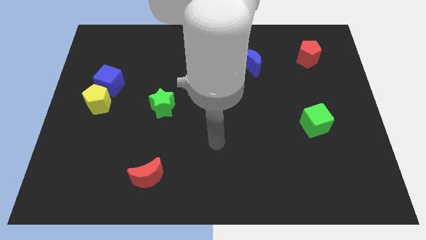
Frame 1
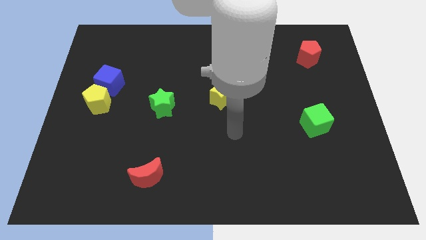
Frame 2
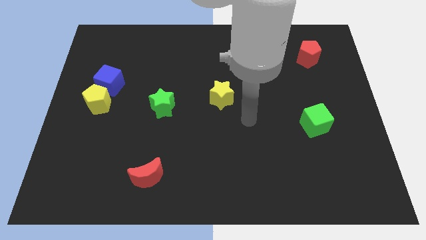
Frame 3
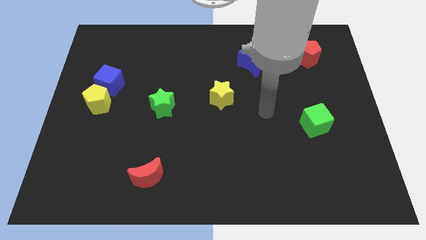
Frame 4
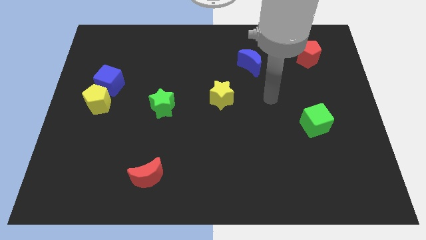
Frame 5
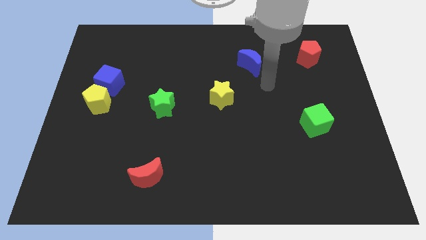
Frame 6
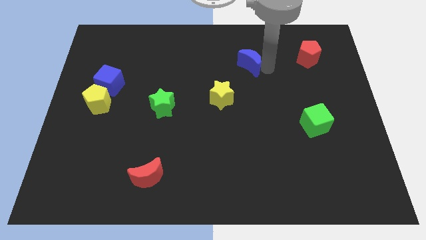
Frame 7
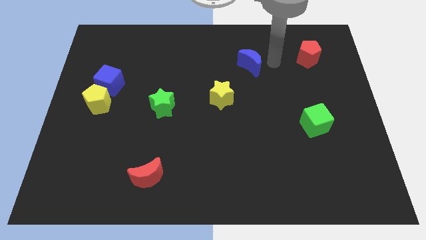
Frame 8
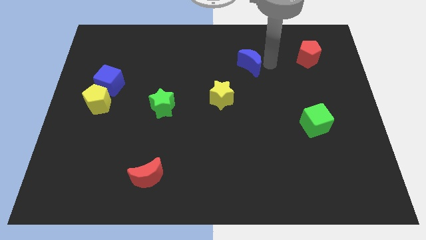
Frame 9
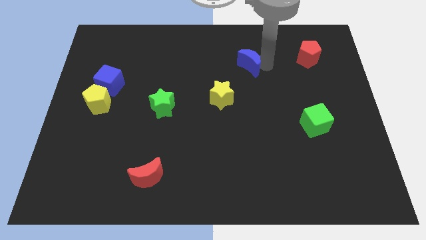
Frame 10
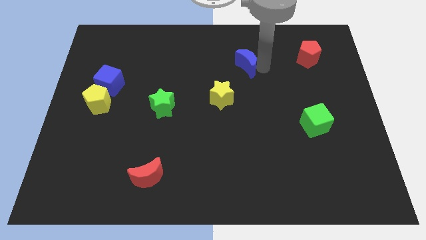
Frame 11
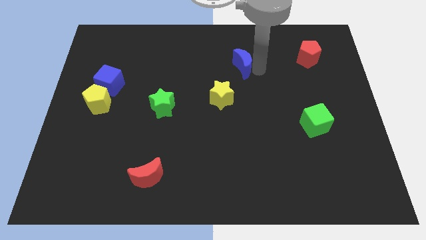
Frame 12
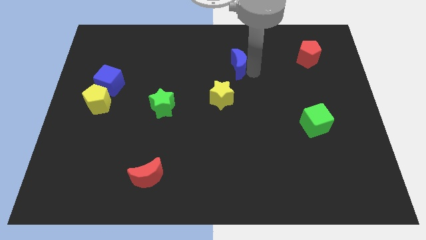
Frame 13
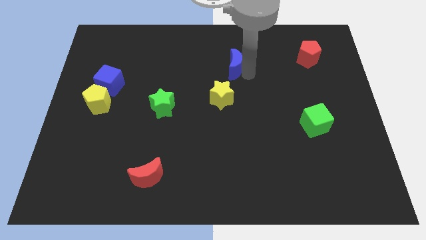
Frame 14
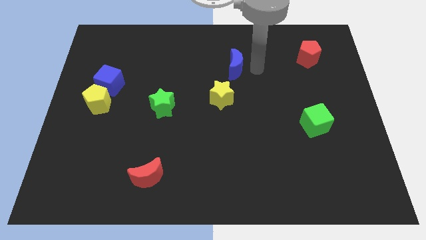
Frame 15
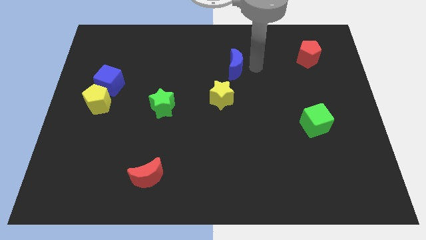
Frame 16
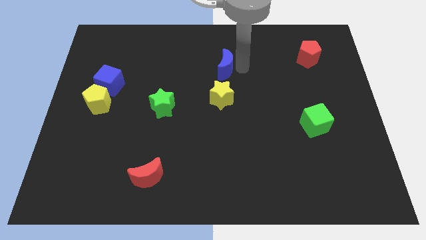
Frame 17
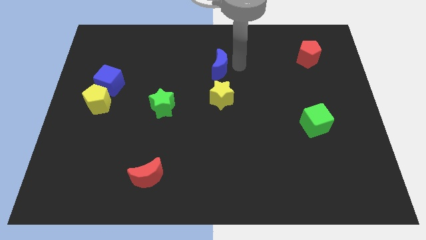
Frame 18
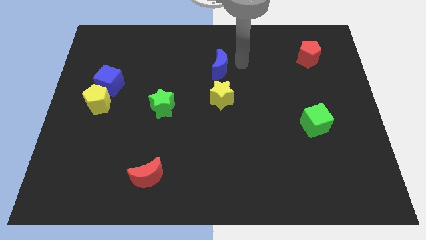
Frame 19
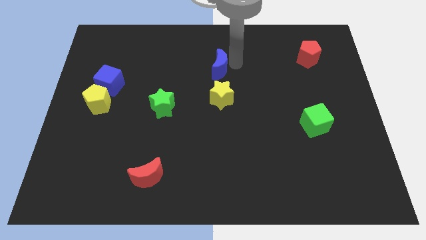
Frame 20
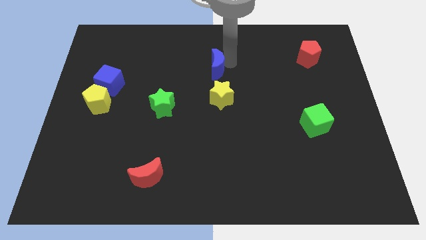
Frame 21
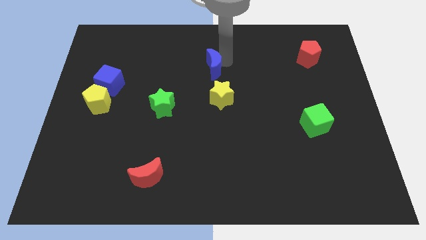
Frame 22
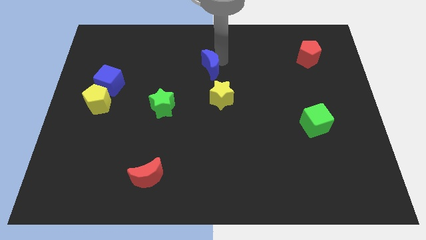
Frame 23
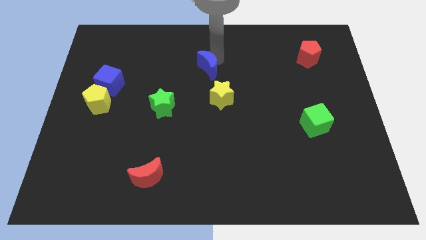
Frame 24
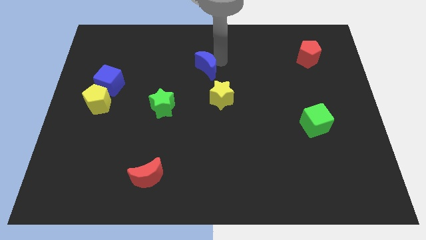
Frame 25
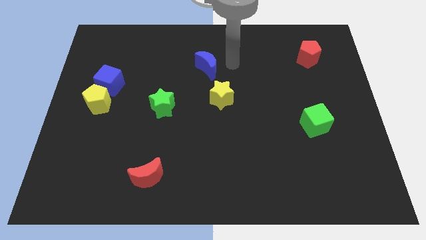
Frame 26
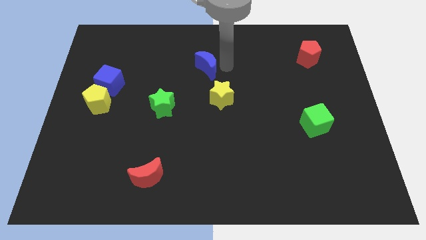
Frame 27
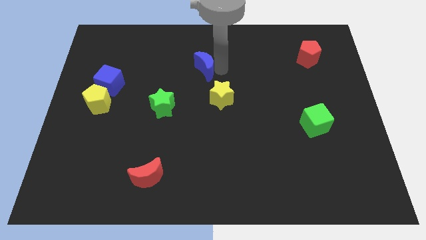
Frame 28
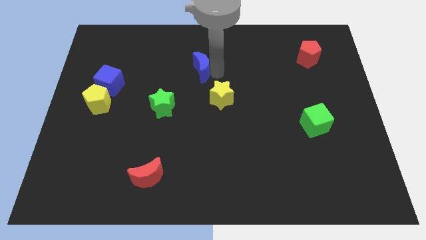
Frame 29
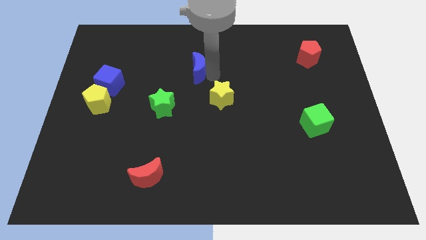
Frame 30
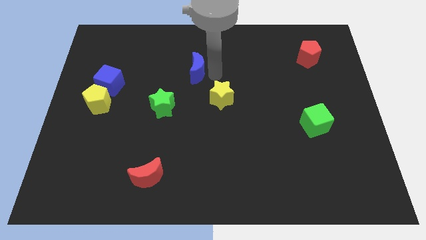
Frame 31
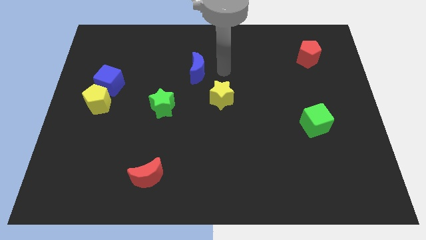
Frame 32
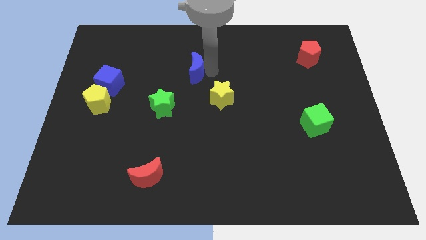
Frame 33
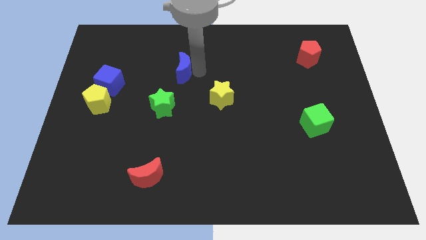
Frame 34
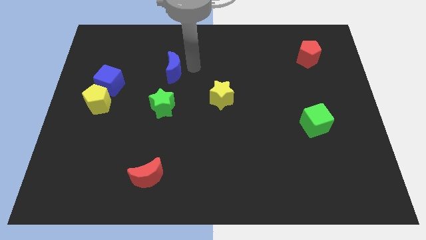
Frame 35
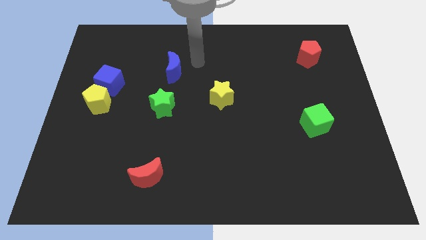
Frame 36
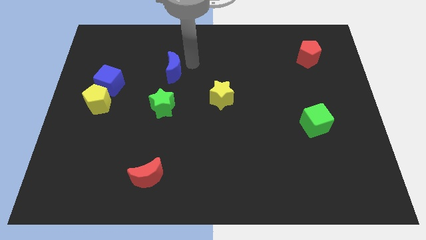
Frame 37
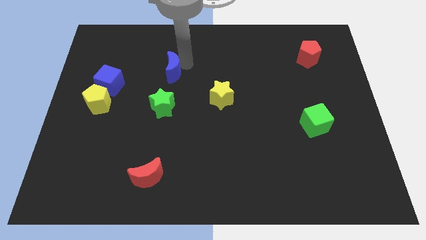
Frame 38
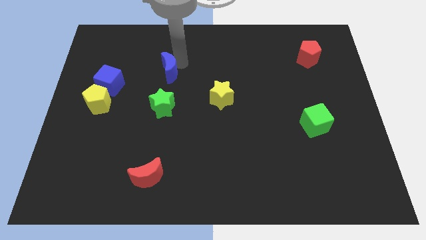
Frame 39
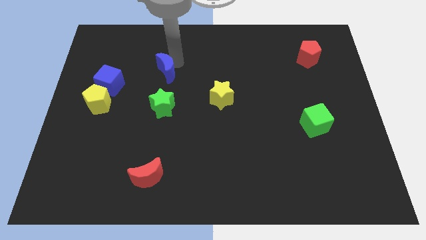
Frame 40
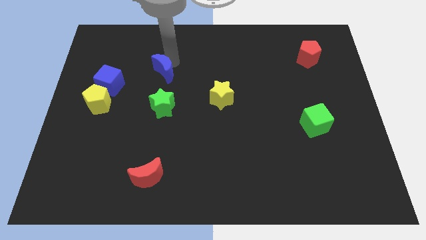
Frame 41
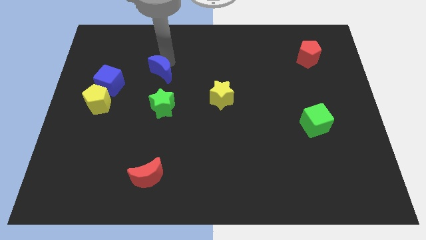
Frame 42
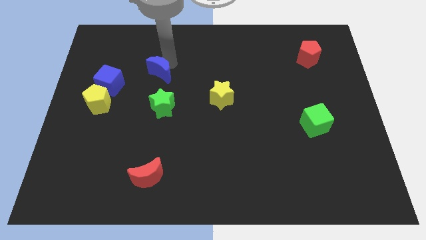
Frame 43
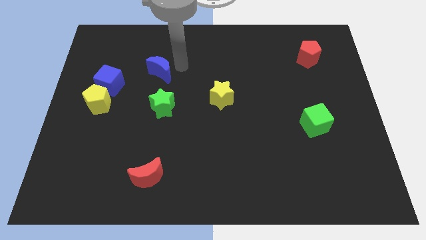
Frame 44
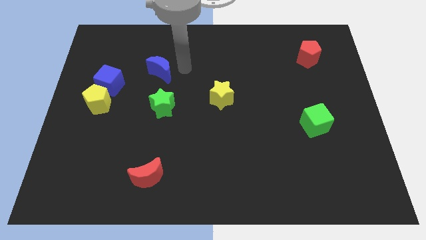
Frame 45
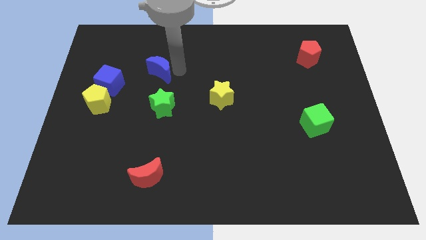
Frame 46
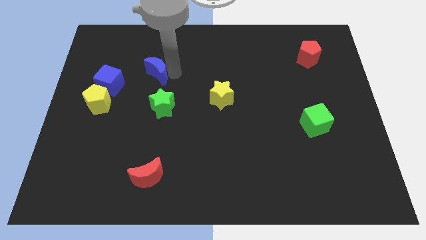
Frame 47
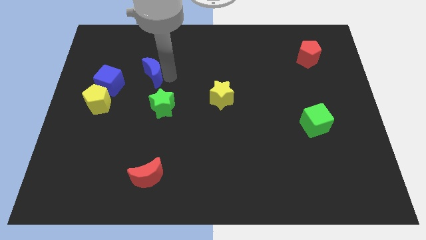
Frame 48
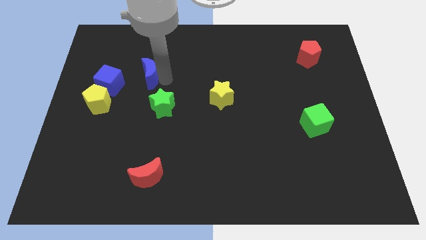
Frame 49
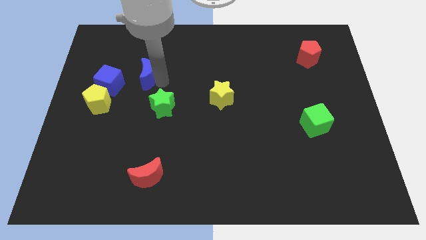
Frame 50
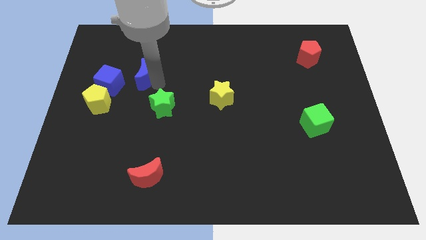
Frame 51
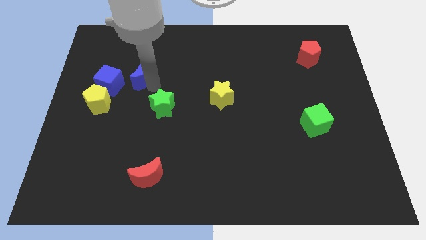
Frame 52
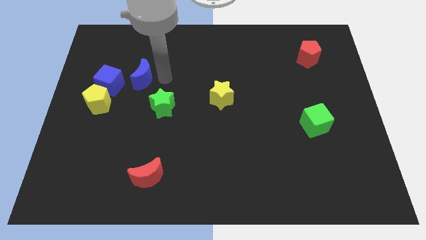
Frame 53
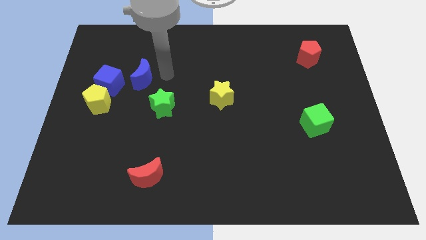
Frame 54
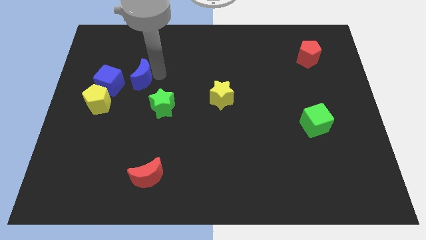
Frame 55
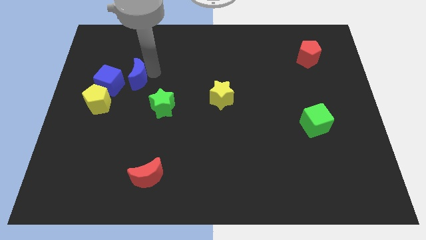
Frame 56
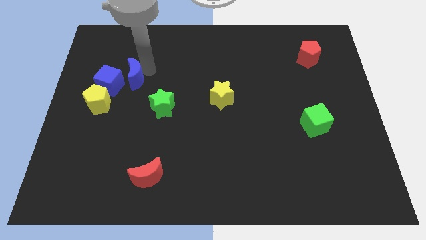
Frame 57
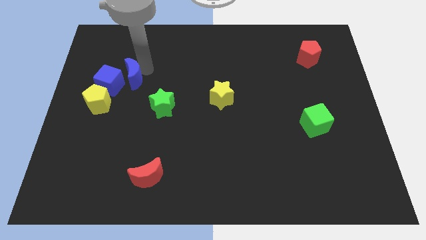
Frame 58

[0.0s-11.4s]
push the blue moon next to the blue cube
